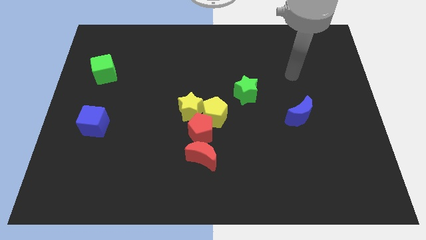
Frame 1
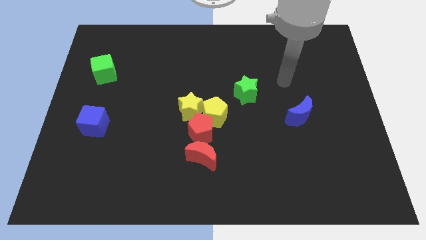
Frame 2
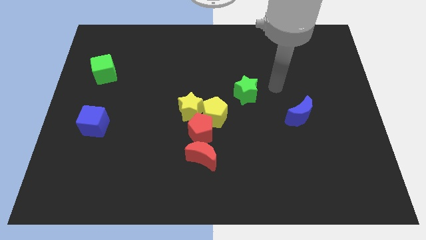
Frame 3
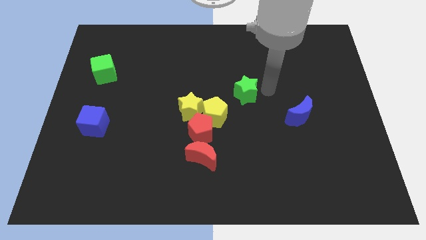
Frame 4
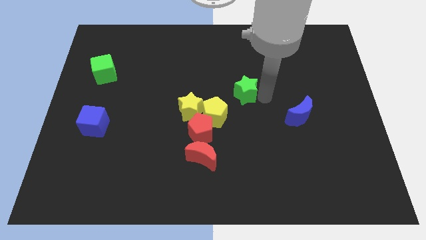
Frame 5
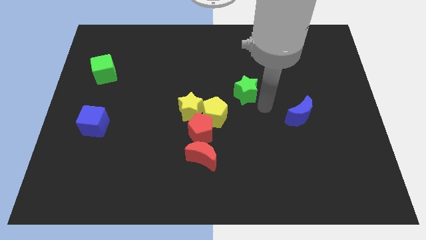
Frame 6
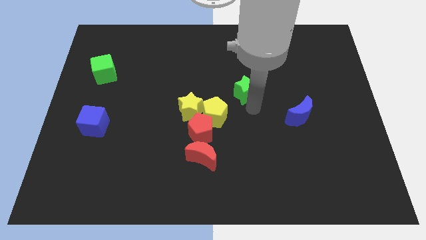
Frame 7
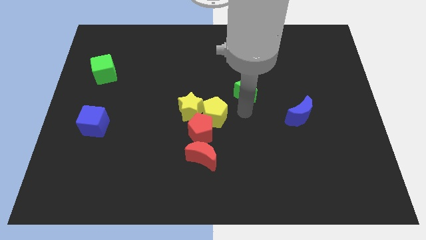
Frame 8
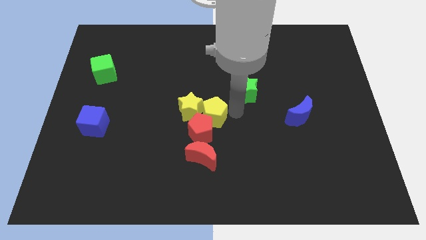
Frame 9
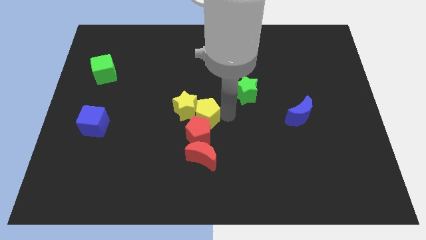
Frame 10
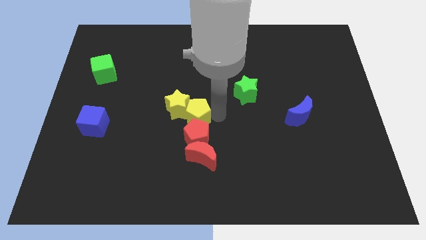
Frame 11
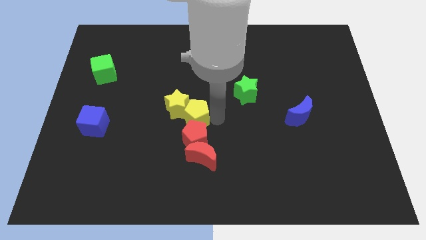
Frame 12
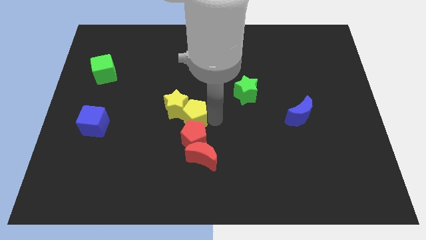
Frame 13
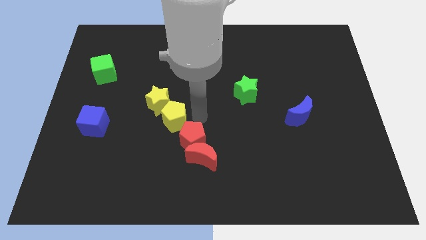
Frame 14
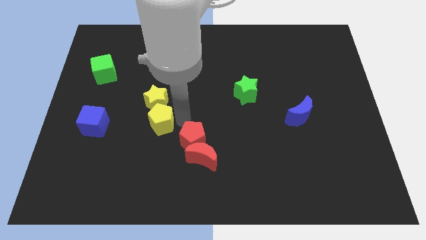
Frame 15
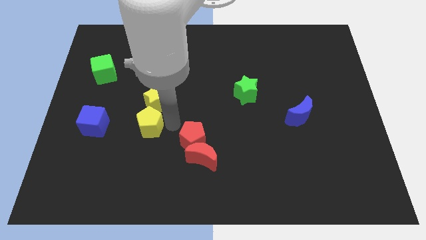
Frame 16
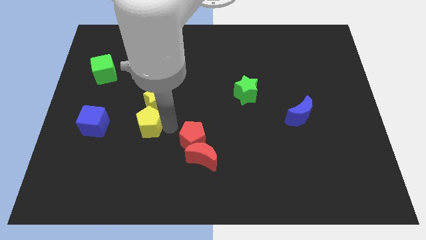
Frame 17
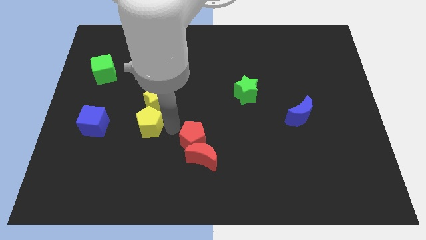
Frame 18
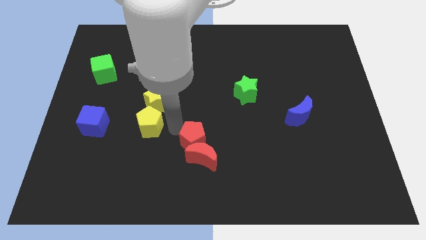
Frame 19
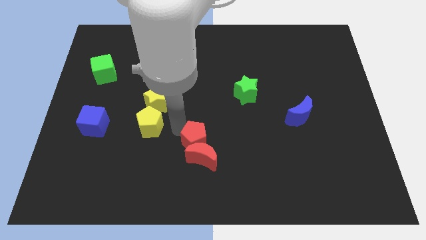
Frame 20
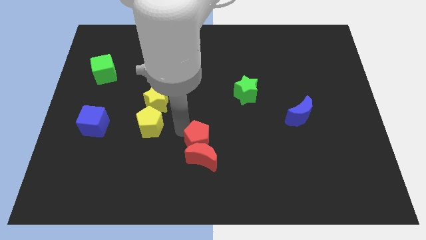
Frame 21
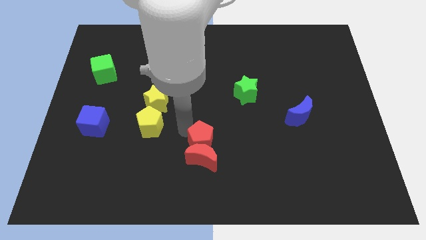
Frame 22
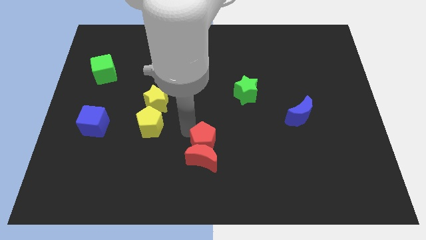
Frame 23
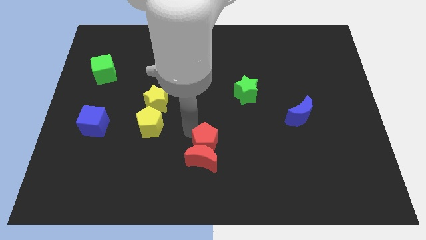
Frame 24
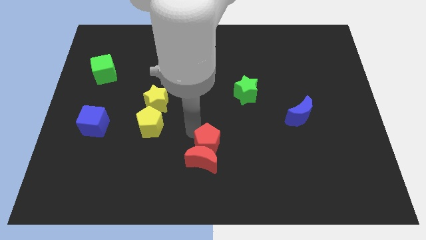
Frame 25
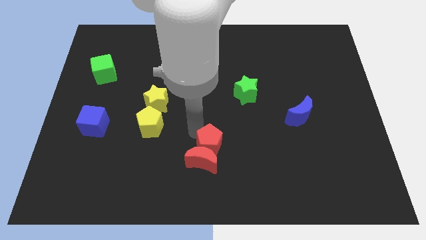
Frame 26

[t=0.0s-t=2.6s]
pull the red pentagon apart from the yellow pentagon, red moon, and yellow star

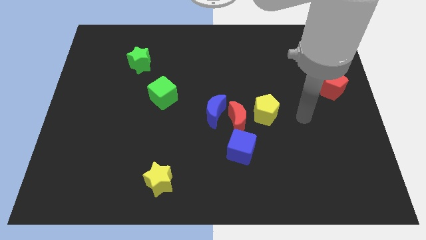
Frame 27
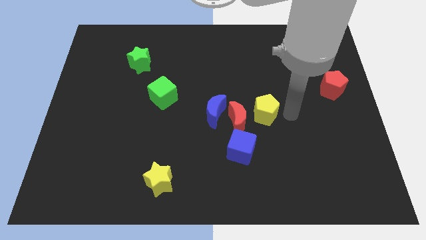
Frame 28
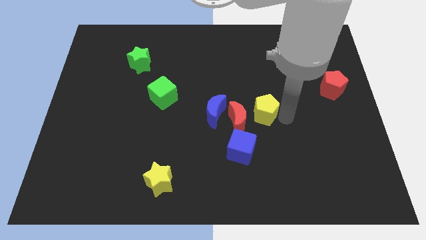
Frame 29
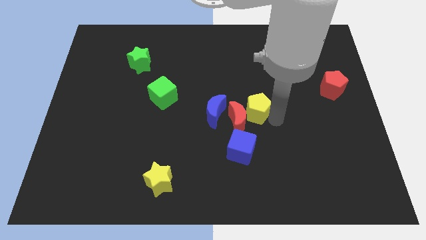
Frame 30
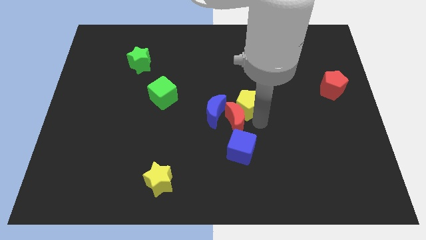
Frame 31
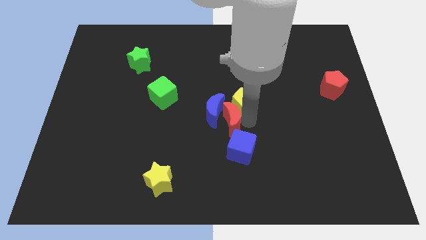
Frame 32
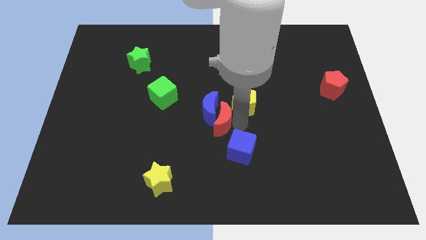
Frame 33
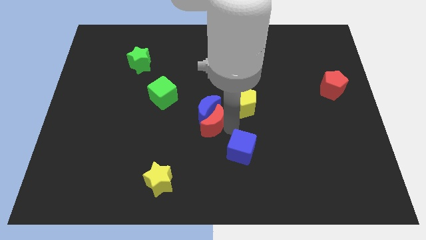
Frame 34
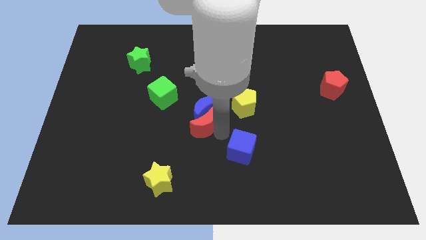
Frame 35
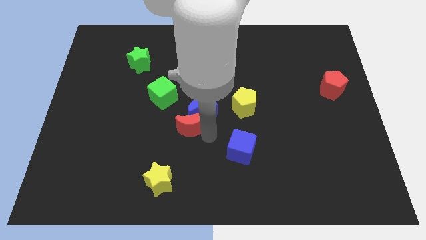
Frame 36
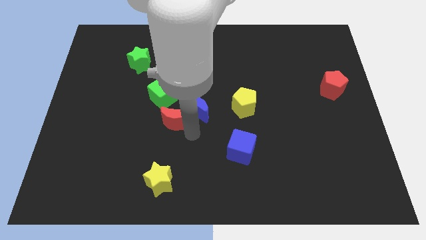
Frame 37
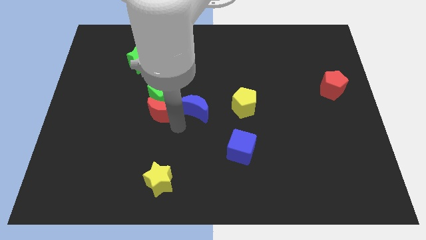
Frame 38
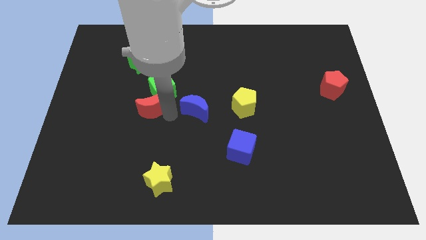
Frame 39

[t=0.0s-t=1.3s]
pull the blue moon apart from the red moon

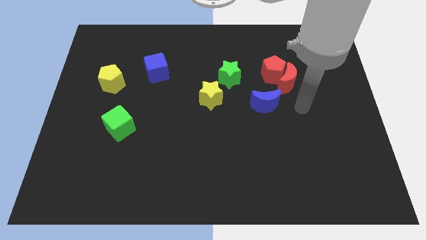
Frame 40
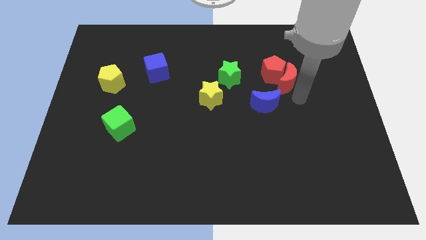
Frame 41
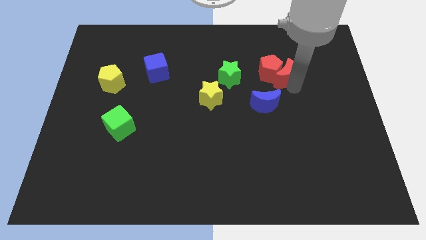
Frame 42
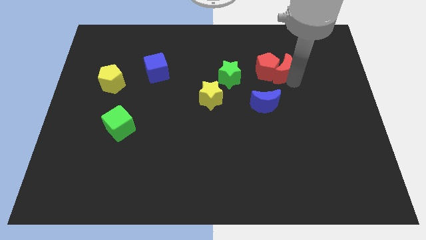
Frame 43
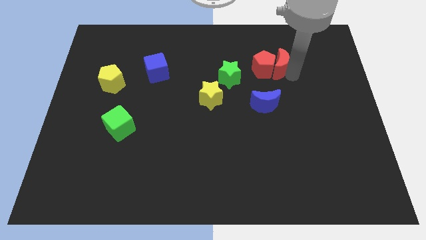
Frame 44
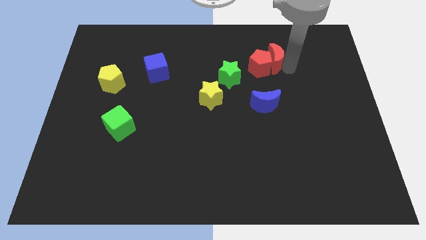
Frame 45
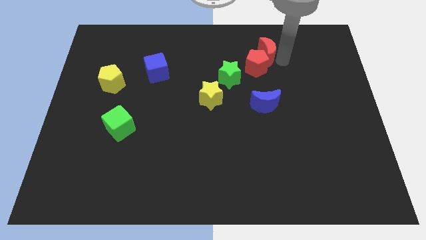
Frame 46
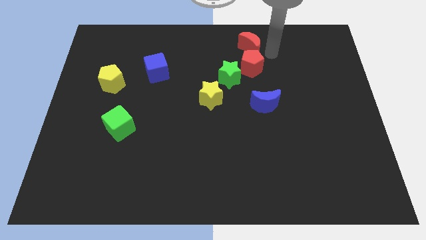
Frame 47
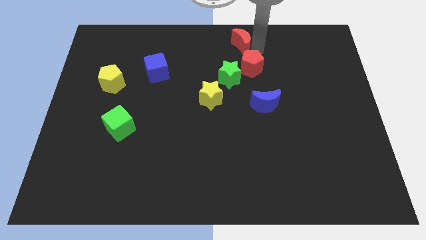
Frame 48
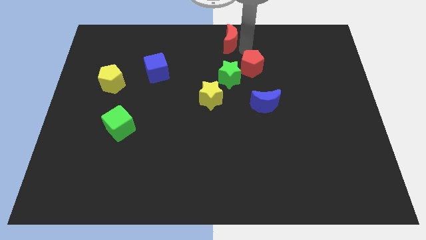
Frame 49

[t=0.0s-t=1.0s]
pull the red pentagon apart from the red moon

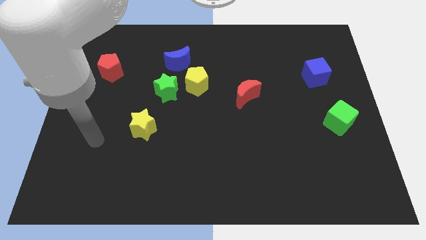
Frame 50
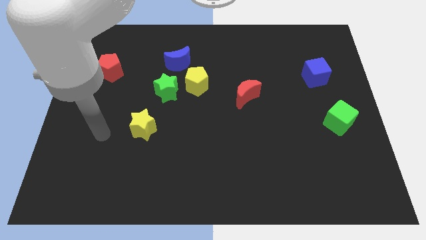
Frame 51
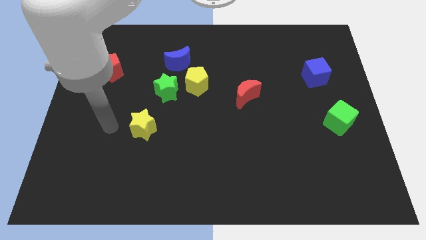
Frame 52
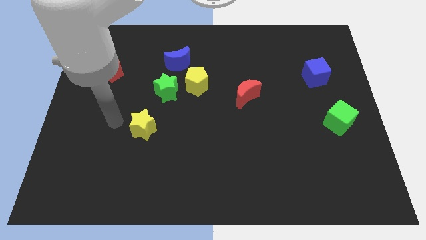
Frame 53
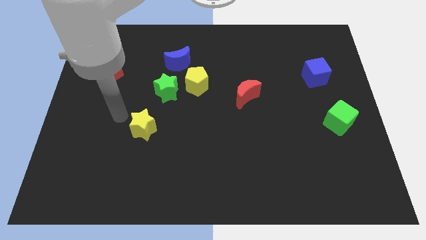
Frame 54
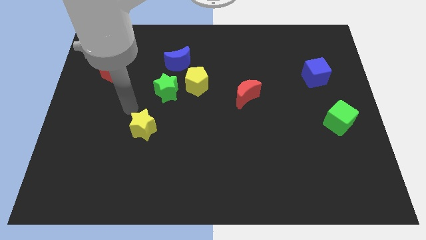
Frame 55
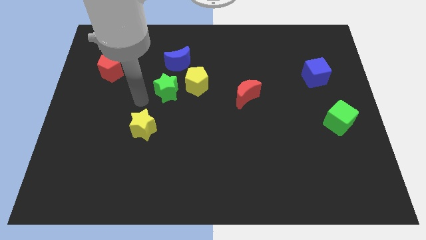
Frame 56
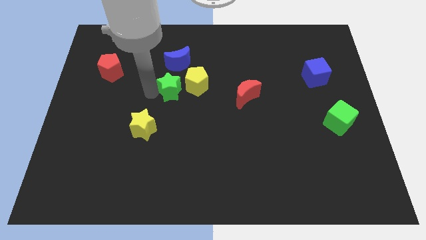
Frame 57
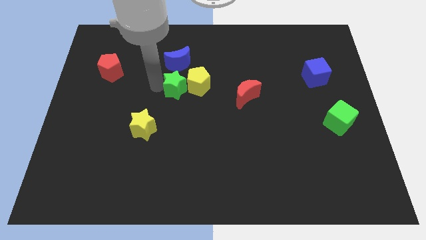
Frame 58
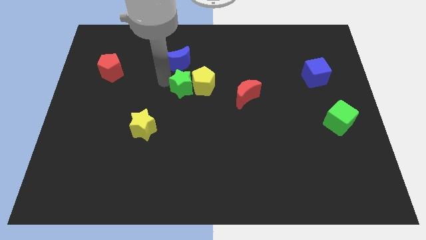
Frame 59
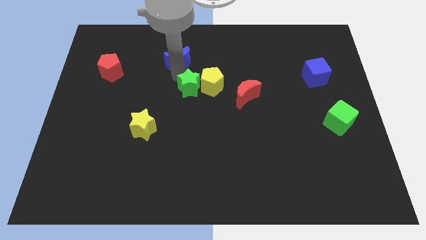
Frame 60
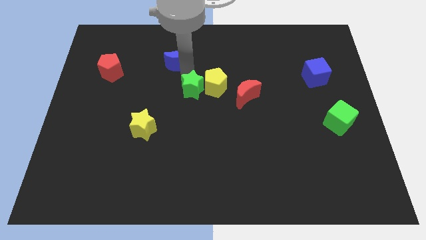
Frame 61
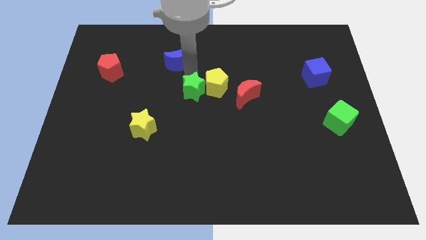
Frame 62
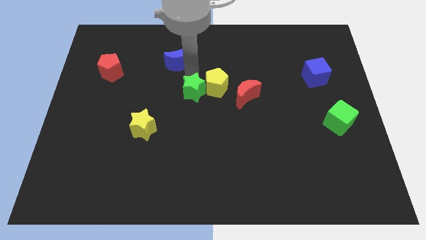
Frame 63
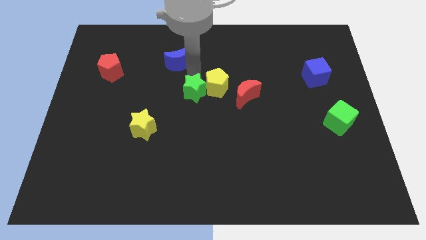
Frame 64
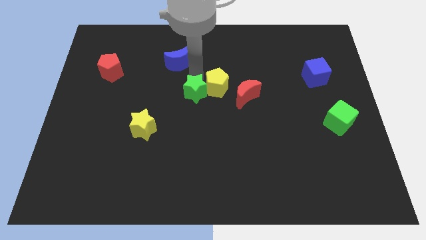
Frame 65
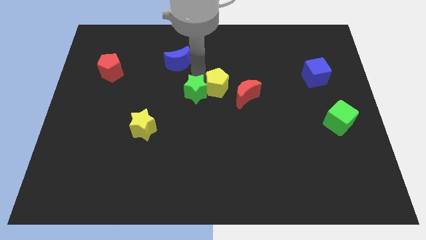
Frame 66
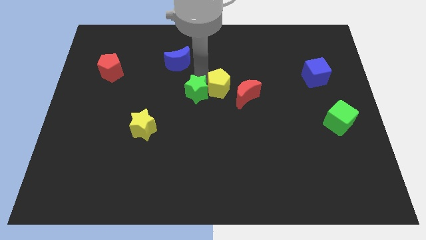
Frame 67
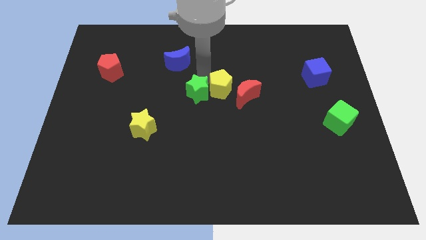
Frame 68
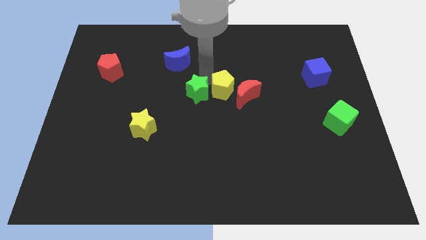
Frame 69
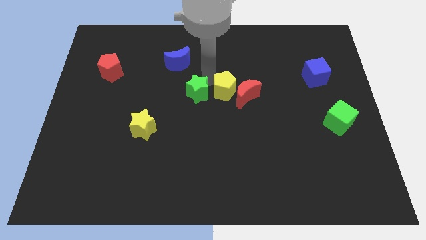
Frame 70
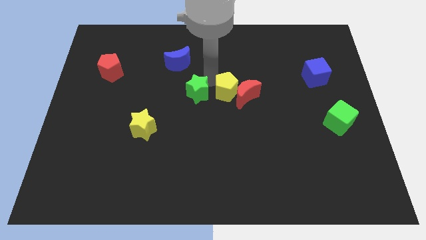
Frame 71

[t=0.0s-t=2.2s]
move the yellow pentagon away from the green star and blue moon

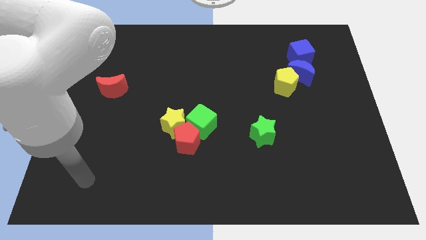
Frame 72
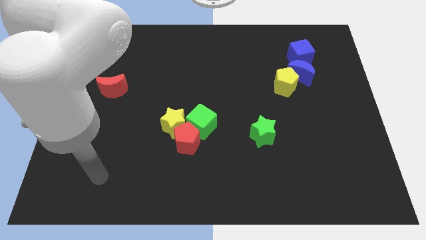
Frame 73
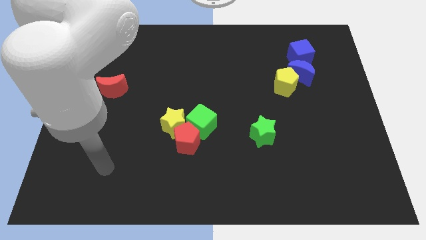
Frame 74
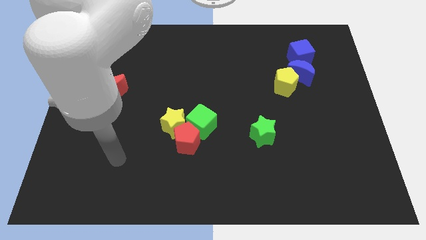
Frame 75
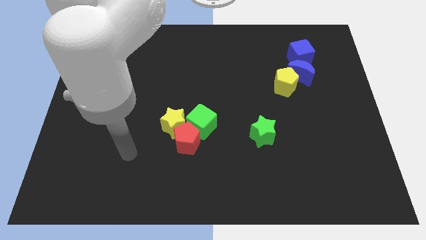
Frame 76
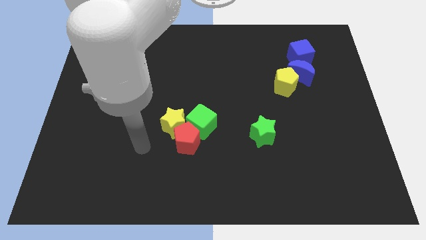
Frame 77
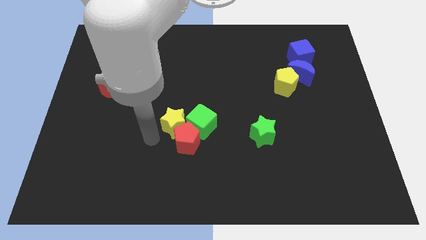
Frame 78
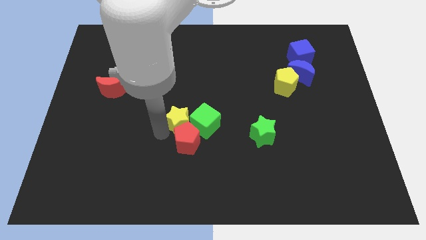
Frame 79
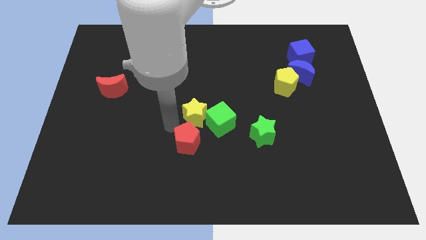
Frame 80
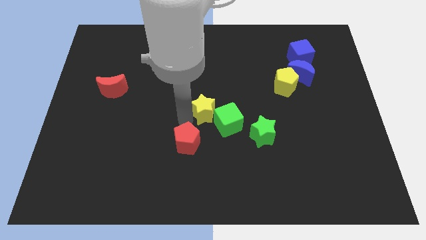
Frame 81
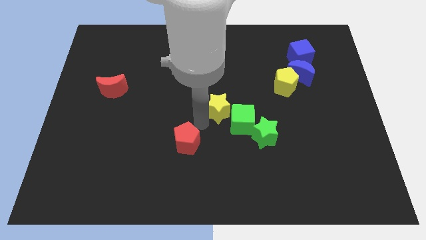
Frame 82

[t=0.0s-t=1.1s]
separate the red pentagon from the yellow star and green cube

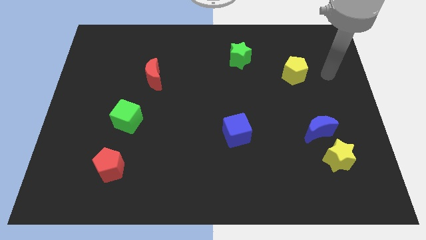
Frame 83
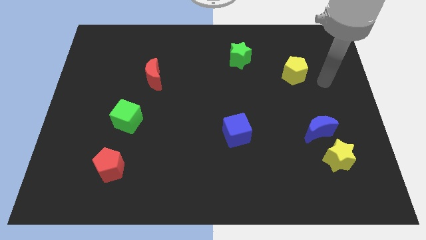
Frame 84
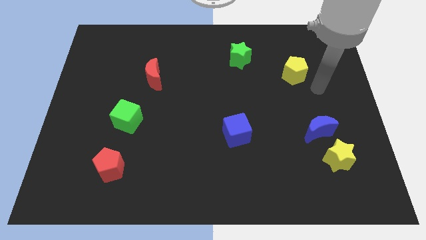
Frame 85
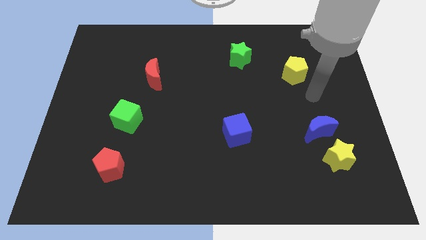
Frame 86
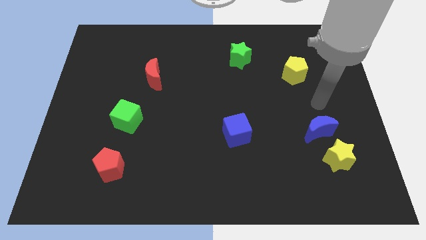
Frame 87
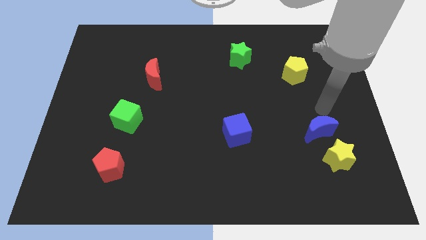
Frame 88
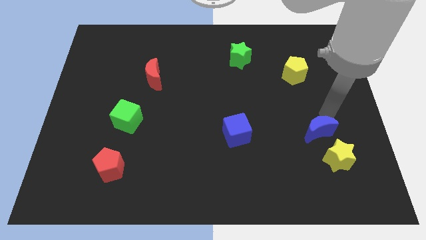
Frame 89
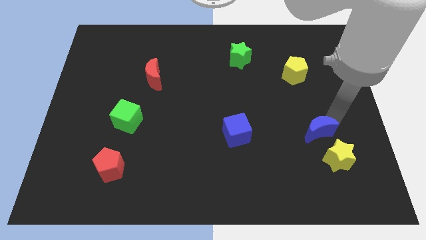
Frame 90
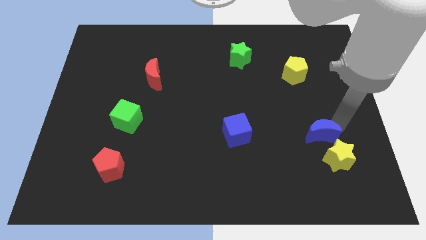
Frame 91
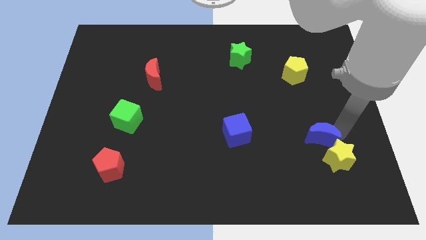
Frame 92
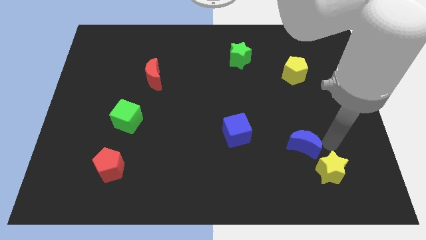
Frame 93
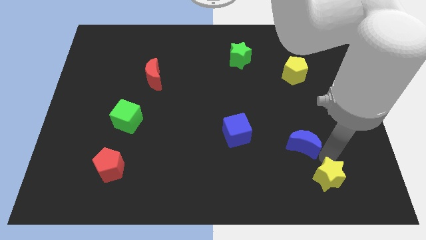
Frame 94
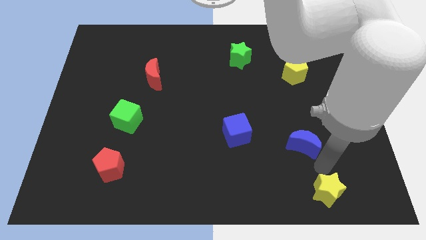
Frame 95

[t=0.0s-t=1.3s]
pull the blue moon apart from the yellow star
